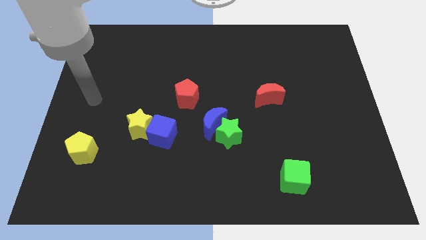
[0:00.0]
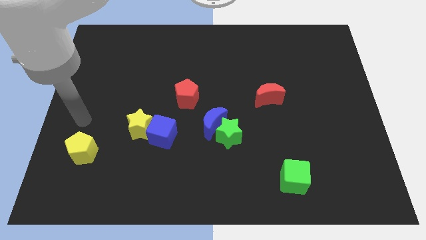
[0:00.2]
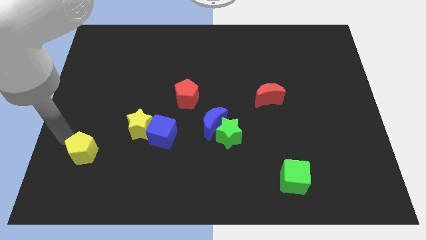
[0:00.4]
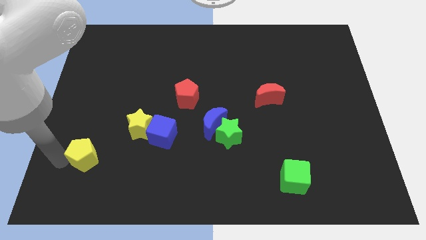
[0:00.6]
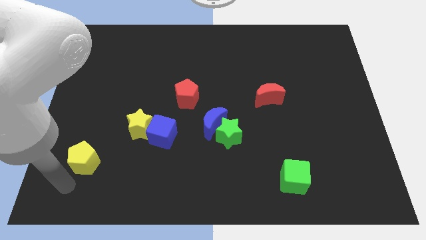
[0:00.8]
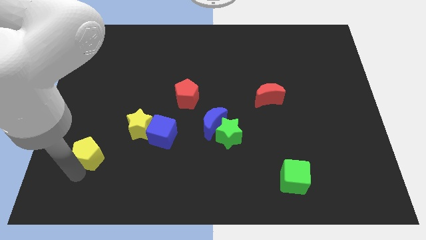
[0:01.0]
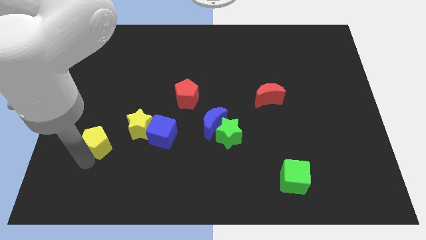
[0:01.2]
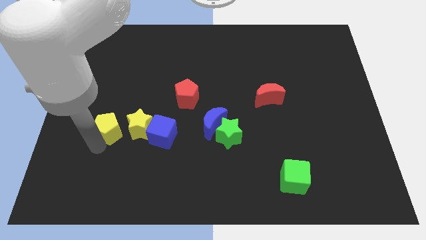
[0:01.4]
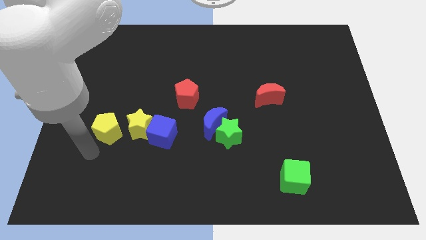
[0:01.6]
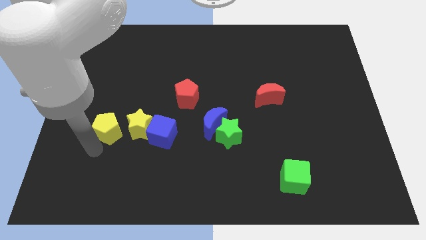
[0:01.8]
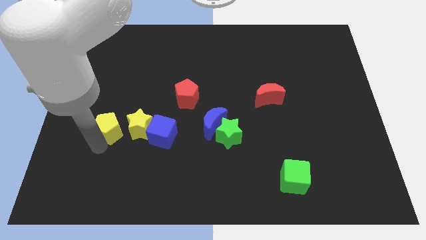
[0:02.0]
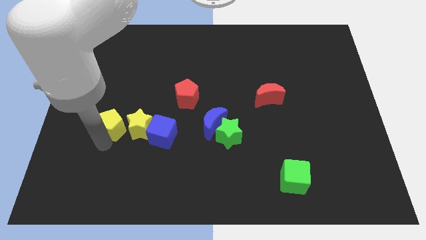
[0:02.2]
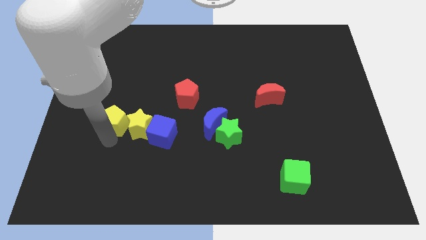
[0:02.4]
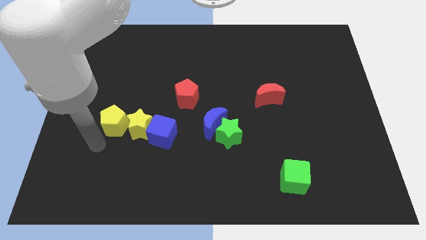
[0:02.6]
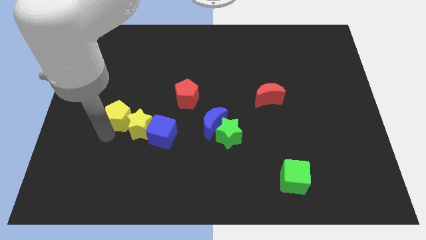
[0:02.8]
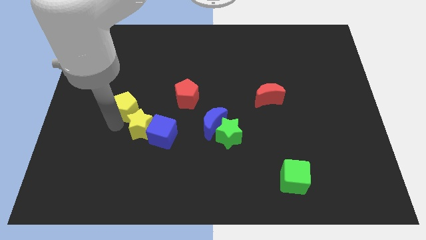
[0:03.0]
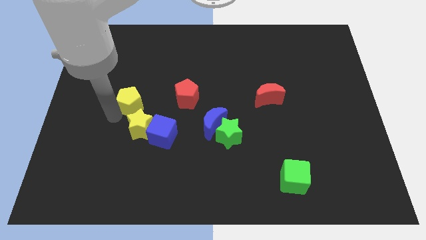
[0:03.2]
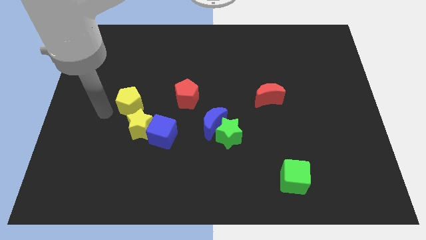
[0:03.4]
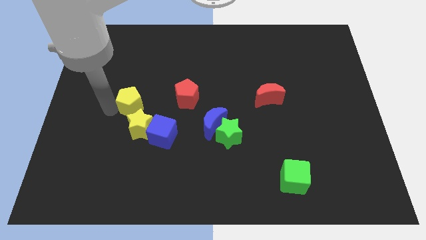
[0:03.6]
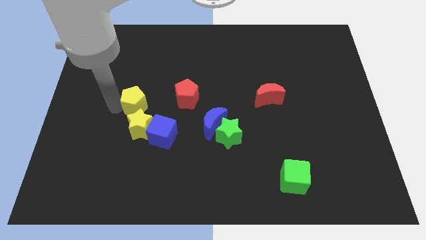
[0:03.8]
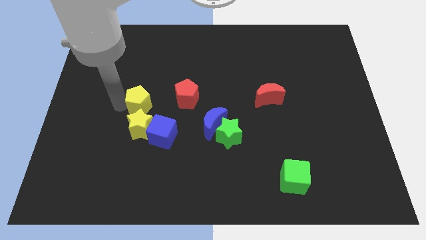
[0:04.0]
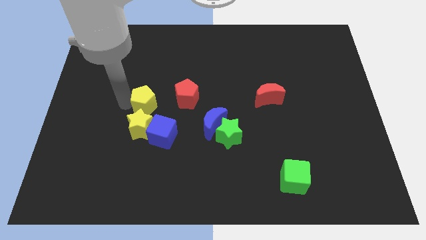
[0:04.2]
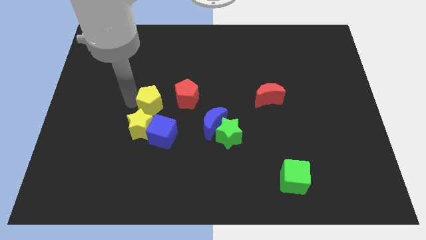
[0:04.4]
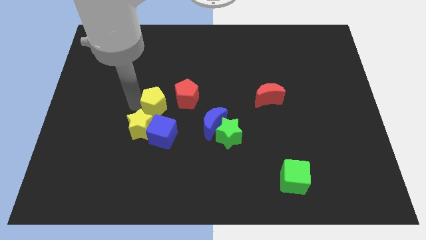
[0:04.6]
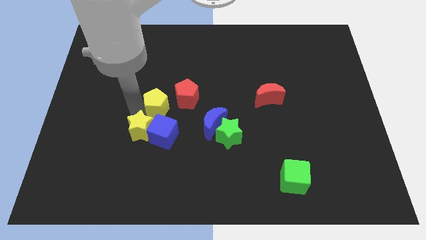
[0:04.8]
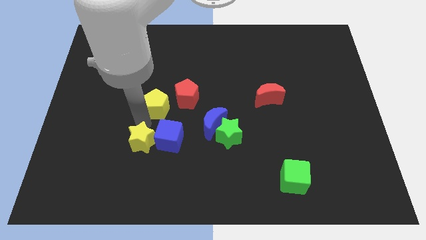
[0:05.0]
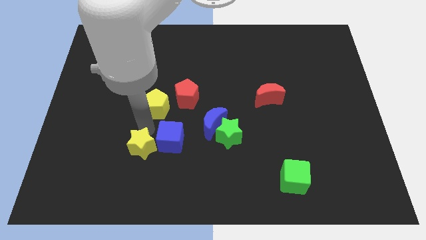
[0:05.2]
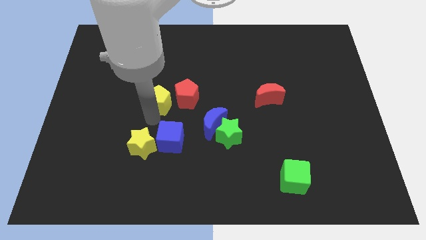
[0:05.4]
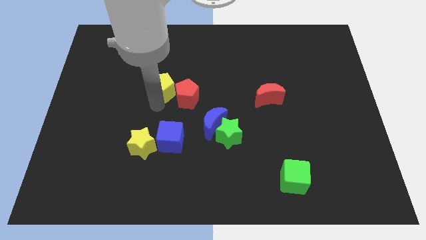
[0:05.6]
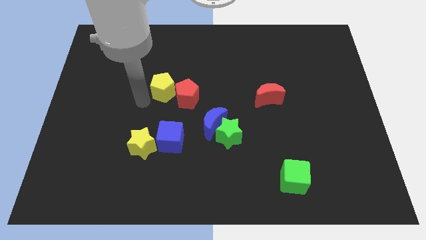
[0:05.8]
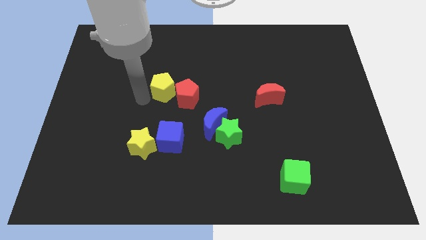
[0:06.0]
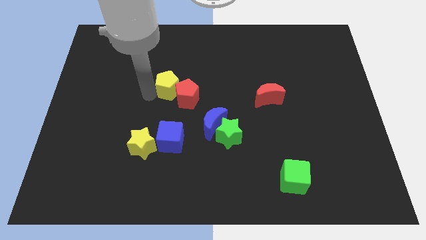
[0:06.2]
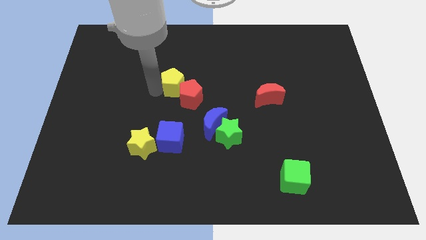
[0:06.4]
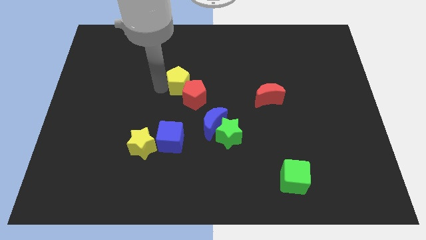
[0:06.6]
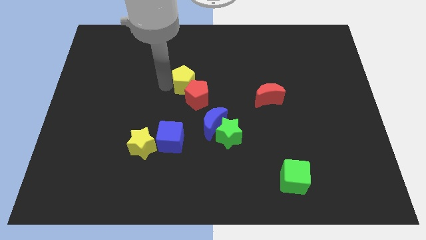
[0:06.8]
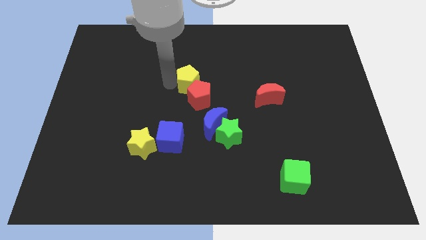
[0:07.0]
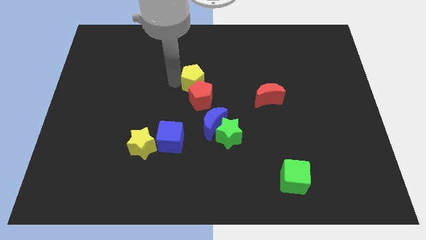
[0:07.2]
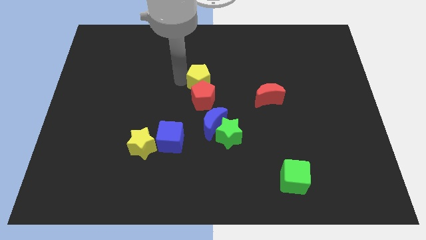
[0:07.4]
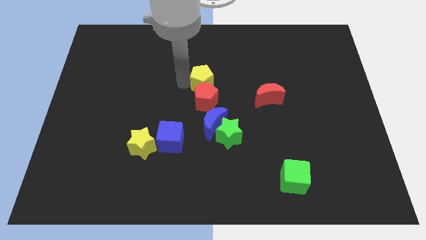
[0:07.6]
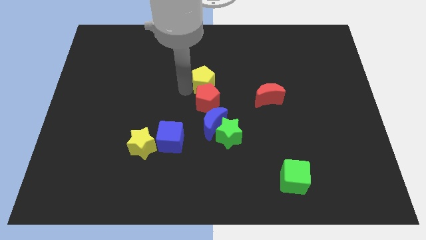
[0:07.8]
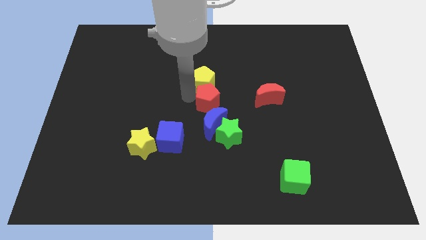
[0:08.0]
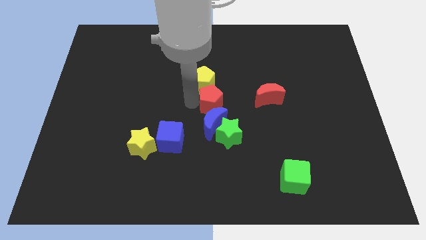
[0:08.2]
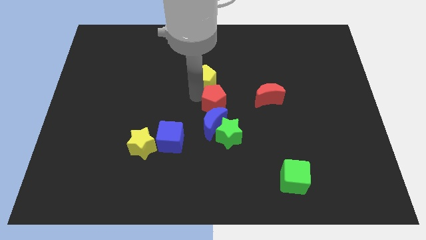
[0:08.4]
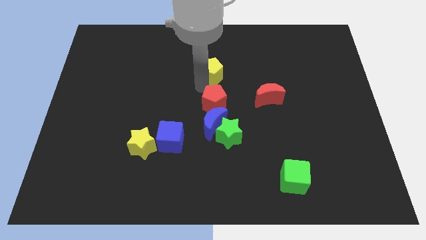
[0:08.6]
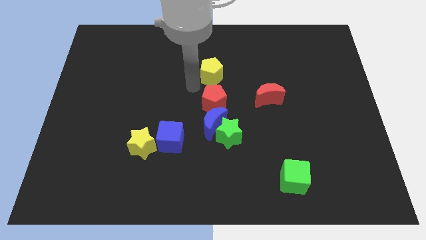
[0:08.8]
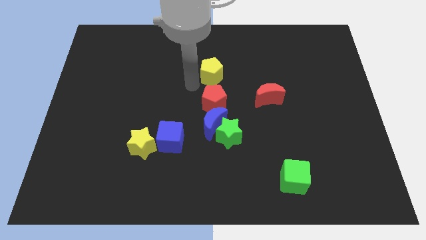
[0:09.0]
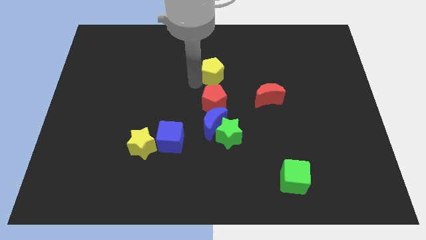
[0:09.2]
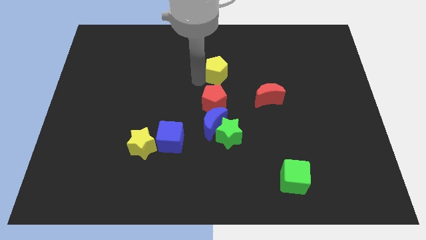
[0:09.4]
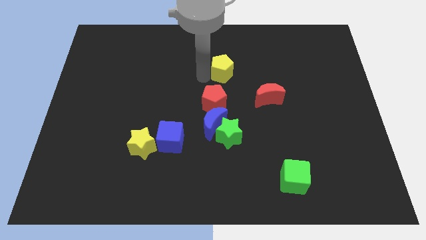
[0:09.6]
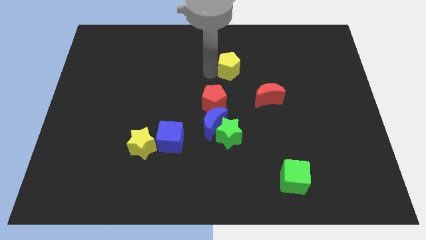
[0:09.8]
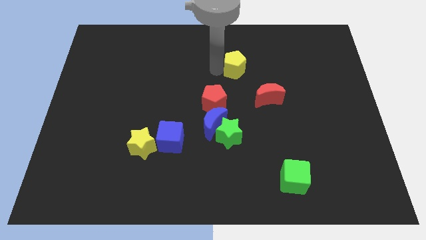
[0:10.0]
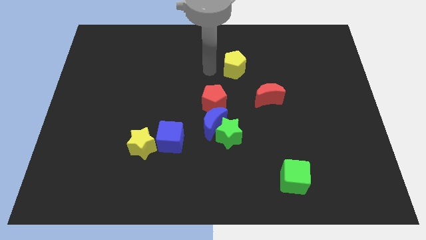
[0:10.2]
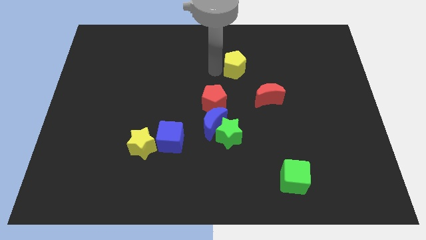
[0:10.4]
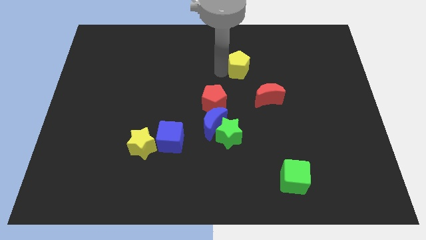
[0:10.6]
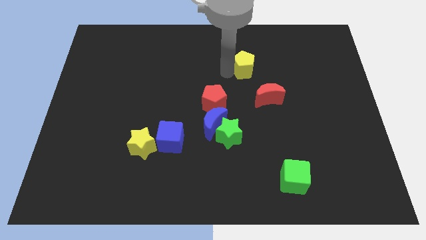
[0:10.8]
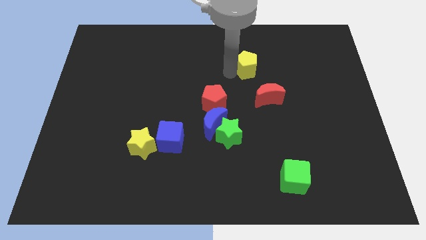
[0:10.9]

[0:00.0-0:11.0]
put the yellow pentagon to the top of the red moon

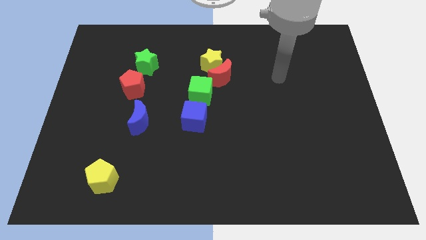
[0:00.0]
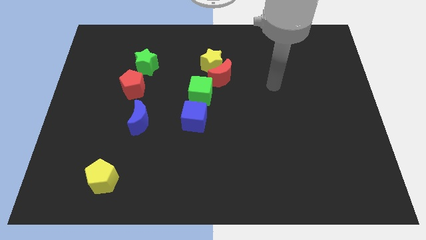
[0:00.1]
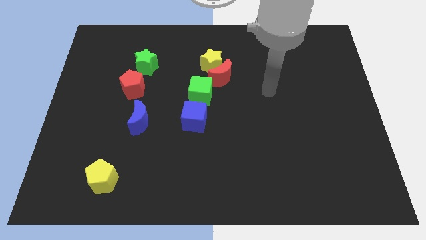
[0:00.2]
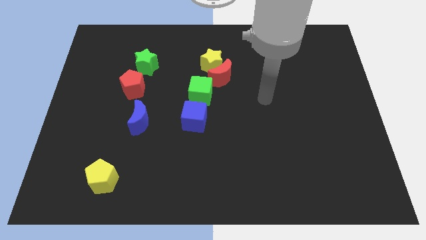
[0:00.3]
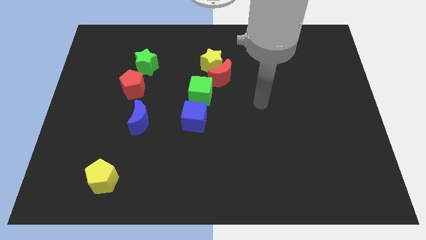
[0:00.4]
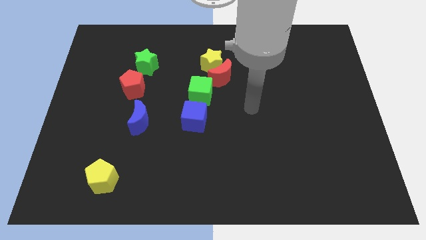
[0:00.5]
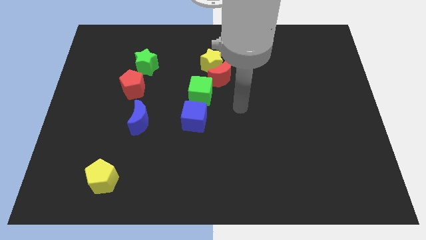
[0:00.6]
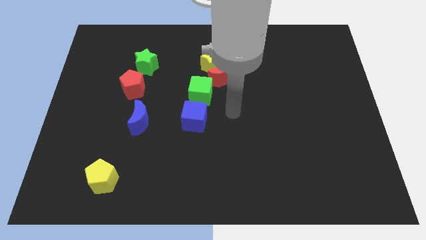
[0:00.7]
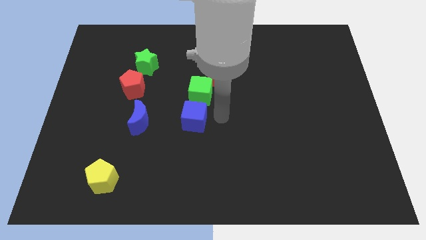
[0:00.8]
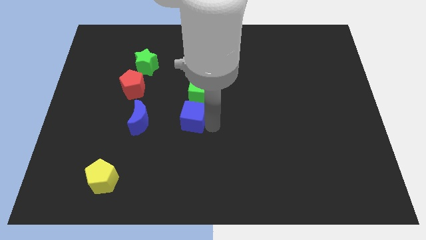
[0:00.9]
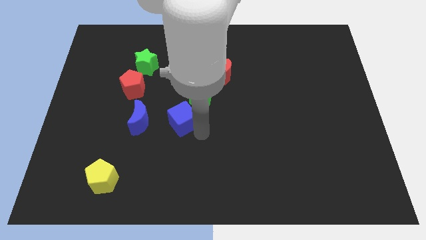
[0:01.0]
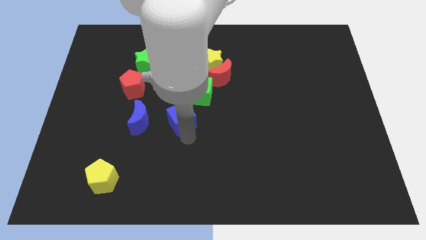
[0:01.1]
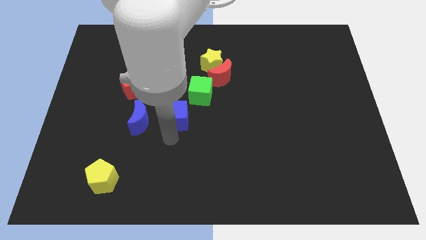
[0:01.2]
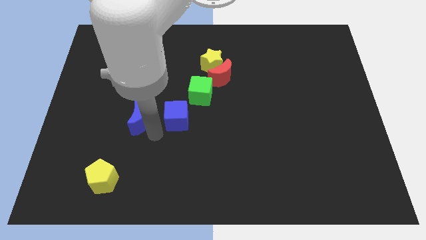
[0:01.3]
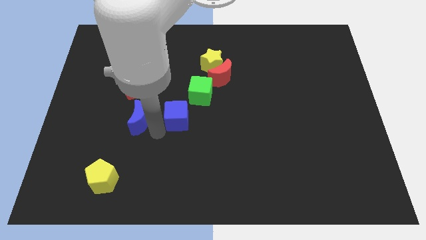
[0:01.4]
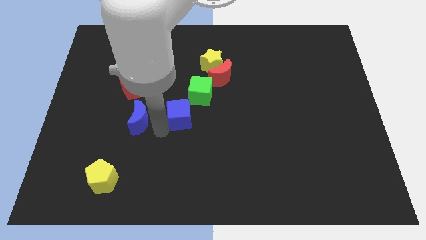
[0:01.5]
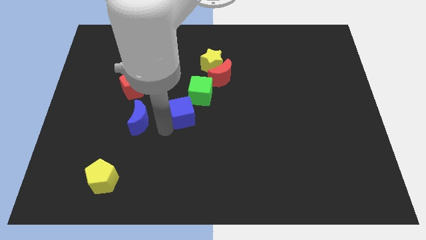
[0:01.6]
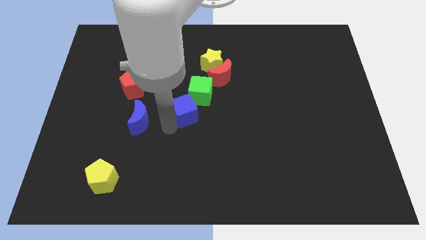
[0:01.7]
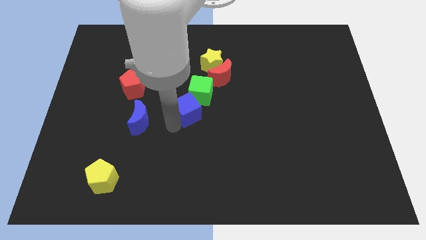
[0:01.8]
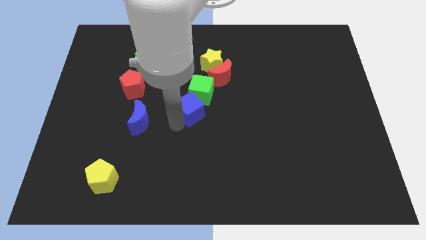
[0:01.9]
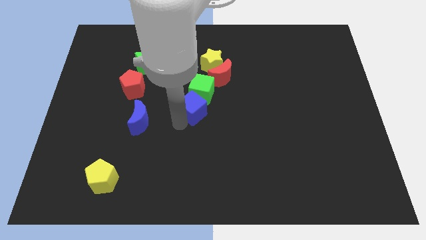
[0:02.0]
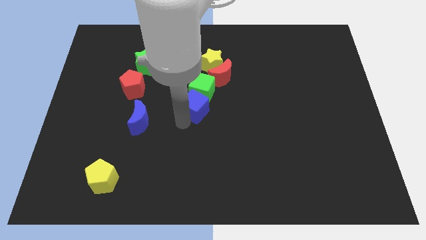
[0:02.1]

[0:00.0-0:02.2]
move the blue cube to the bottom of the yellow star
